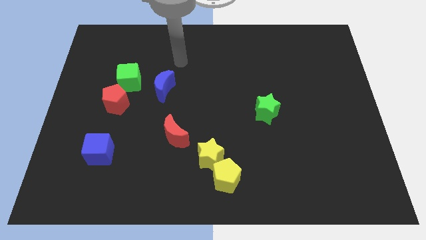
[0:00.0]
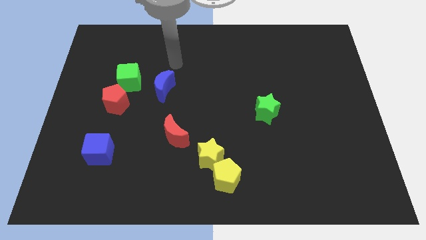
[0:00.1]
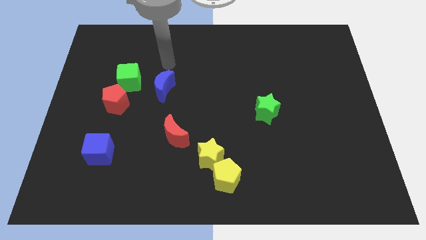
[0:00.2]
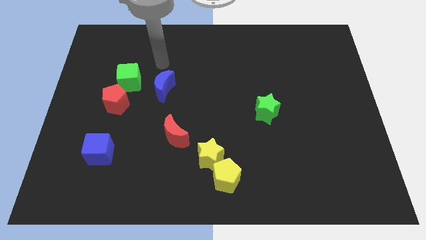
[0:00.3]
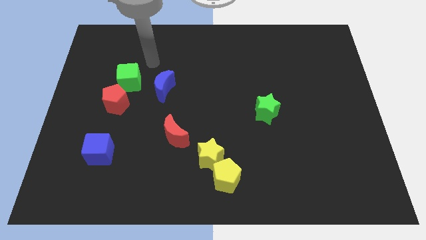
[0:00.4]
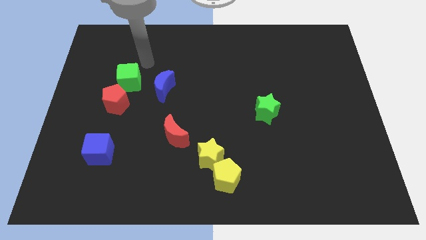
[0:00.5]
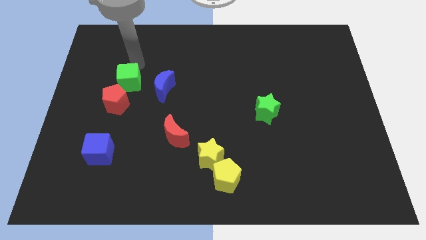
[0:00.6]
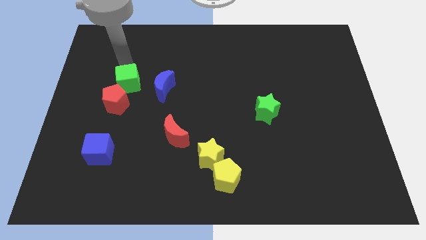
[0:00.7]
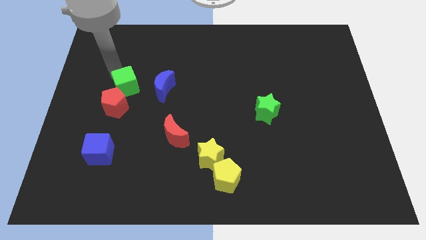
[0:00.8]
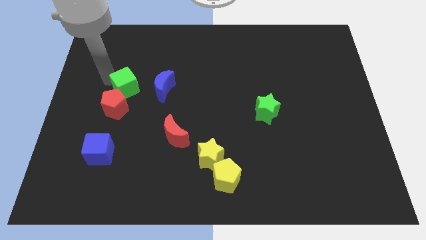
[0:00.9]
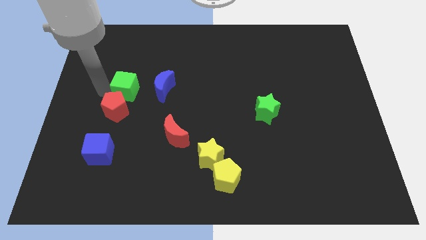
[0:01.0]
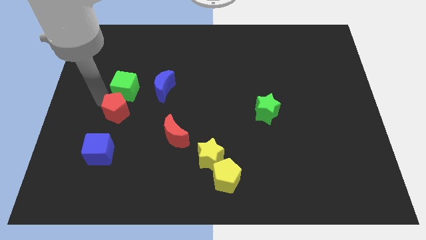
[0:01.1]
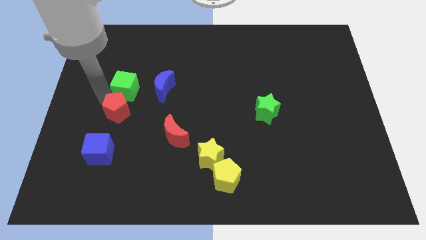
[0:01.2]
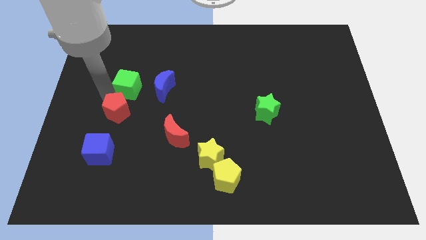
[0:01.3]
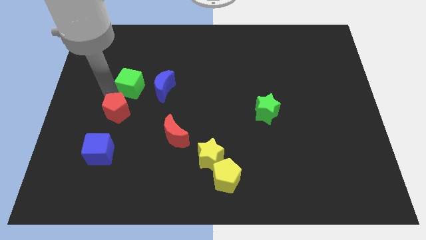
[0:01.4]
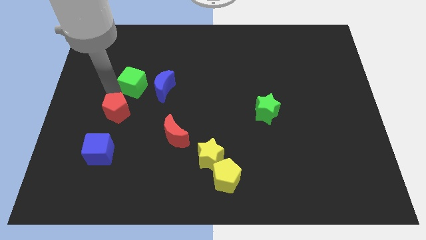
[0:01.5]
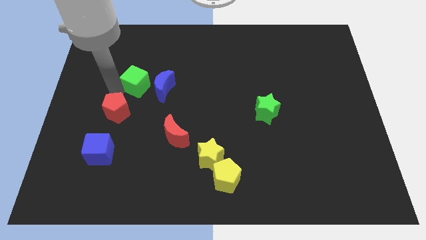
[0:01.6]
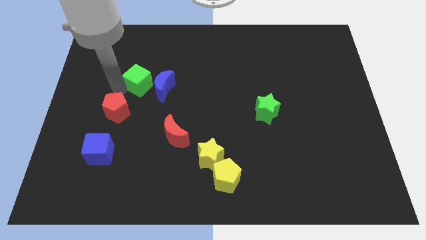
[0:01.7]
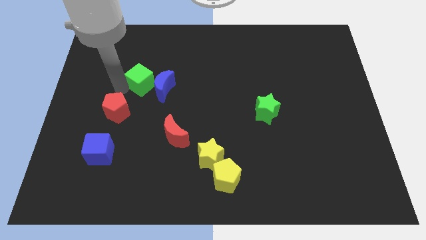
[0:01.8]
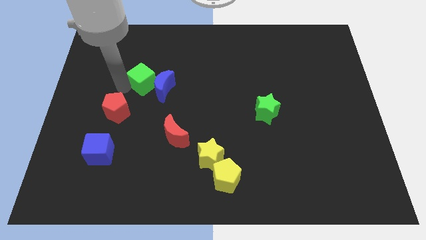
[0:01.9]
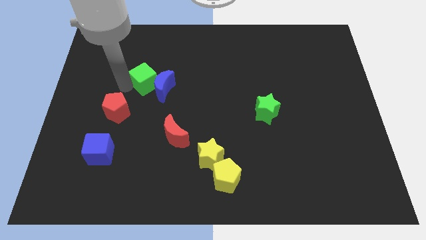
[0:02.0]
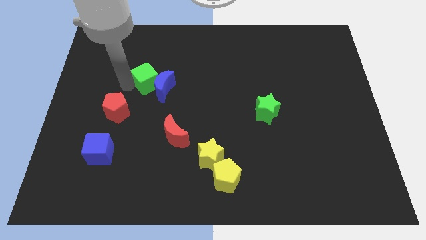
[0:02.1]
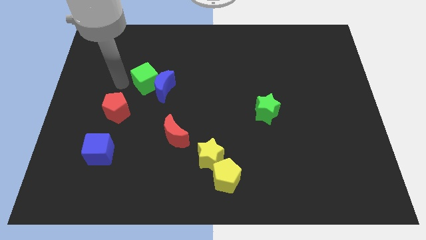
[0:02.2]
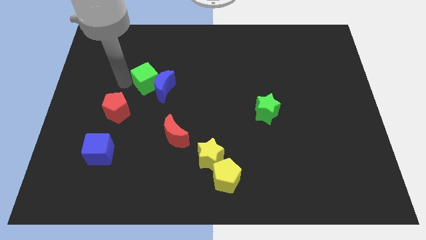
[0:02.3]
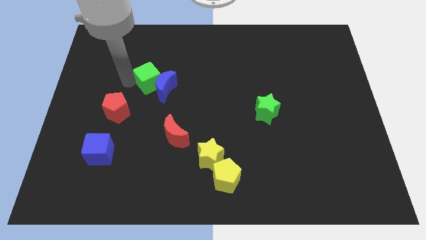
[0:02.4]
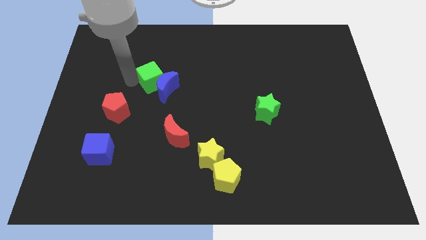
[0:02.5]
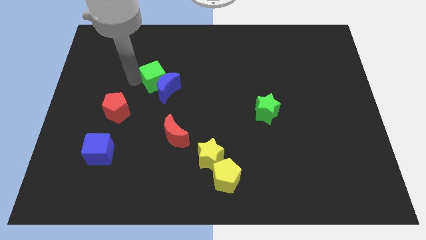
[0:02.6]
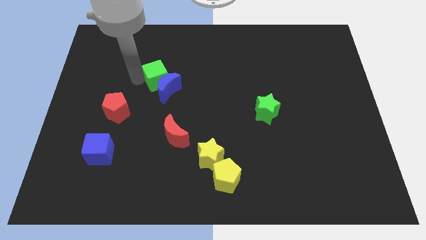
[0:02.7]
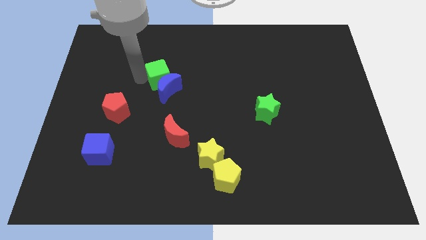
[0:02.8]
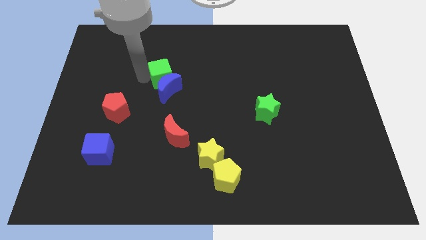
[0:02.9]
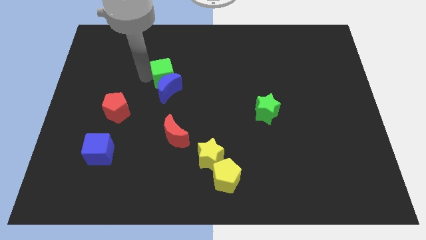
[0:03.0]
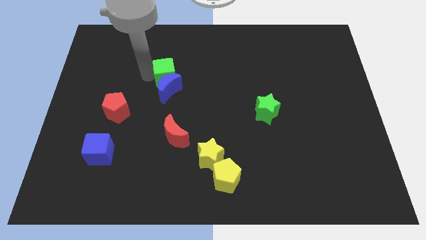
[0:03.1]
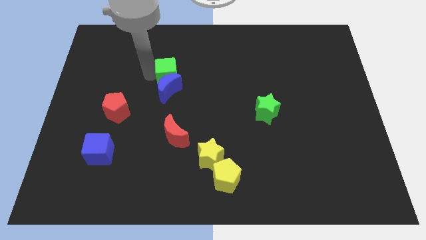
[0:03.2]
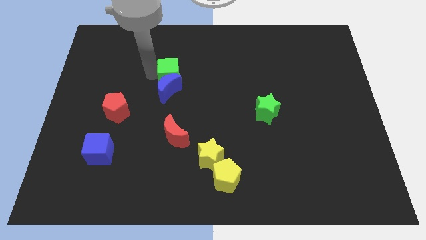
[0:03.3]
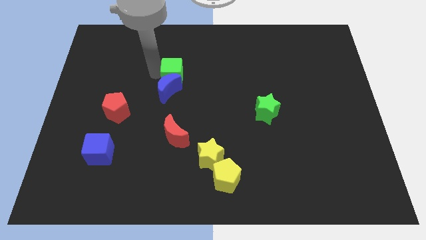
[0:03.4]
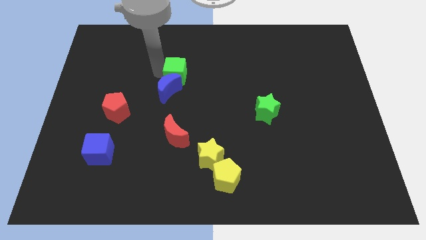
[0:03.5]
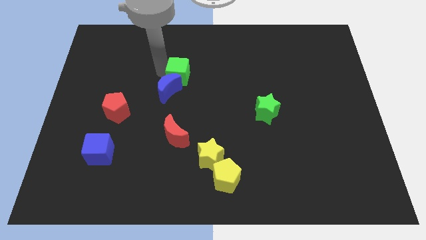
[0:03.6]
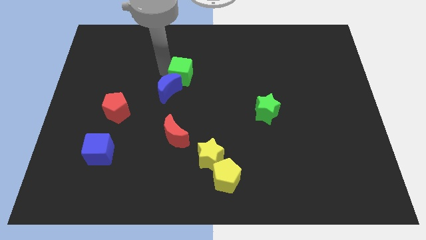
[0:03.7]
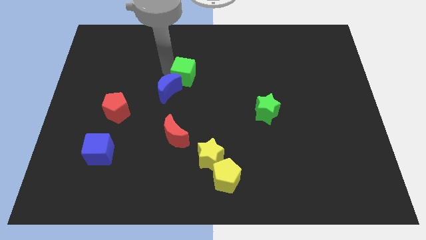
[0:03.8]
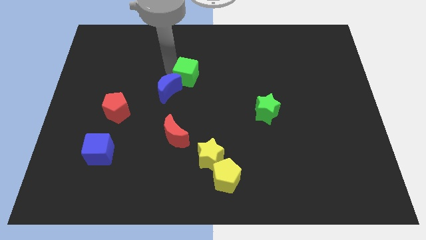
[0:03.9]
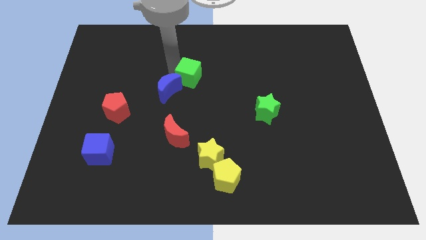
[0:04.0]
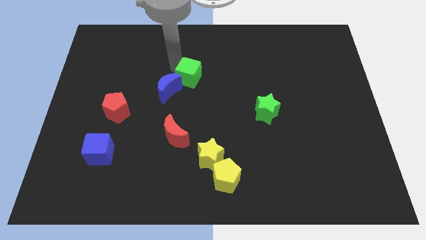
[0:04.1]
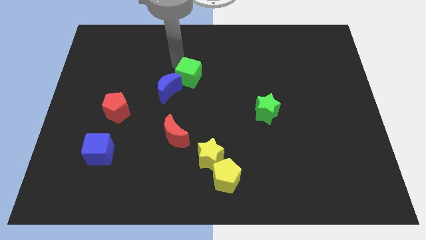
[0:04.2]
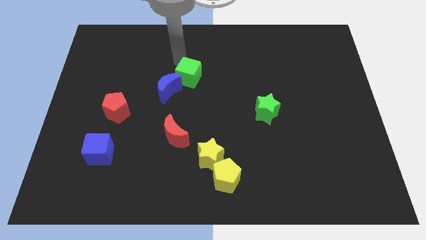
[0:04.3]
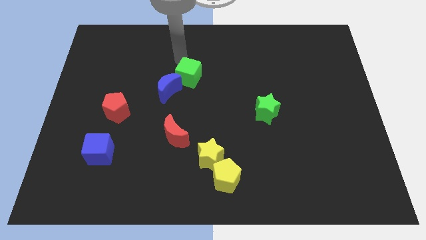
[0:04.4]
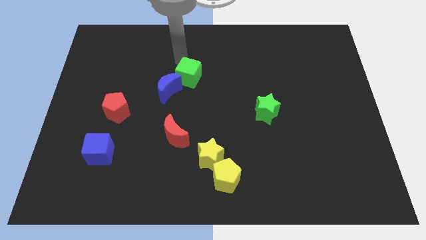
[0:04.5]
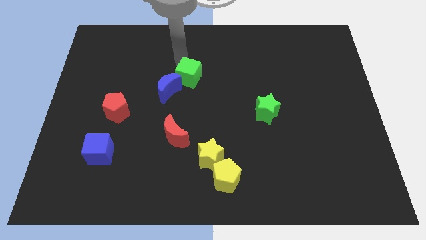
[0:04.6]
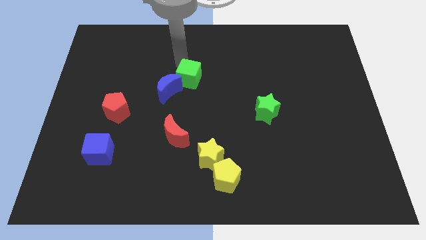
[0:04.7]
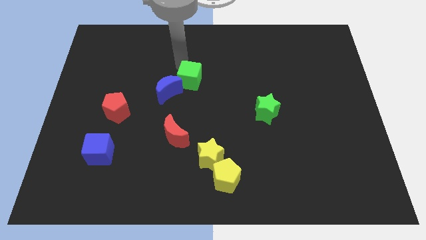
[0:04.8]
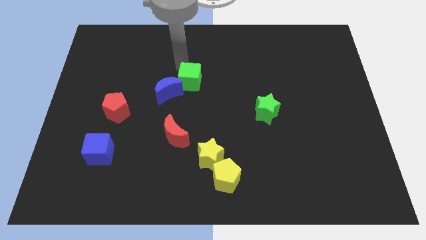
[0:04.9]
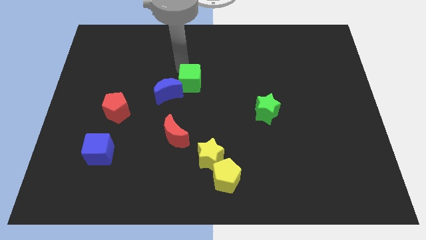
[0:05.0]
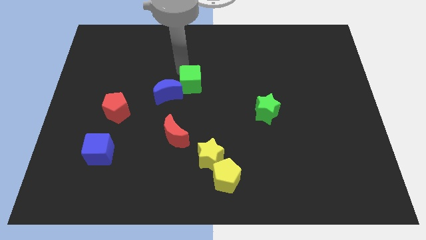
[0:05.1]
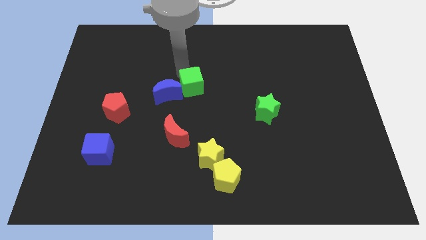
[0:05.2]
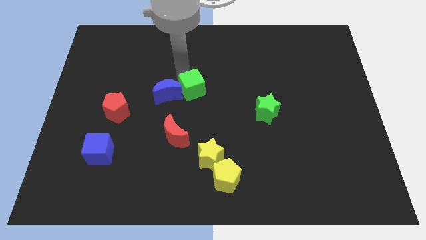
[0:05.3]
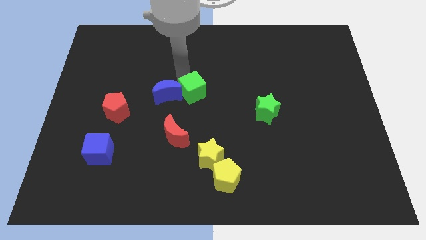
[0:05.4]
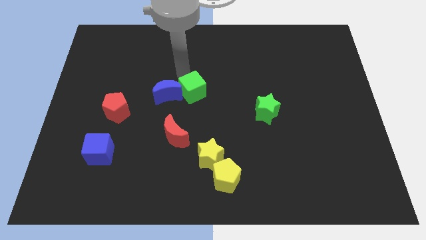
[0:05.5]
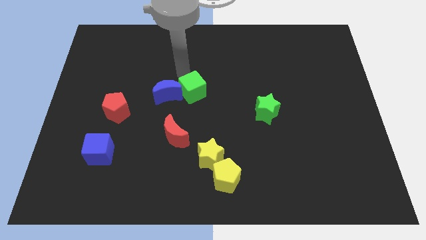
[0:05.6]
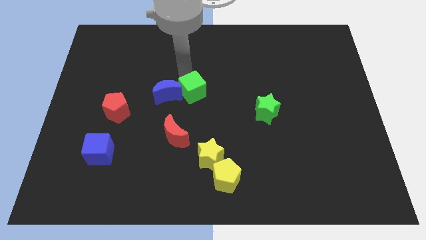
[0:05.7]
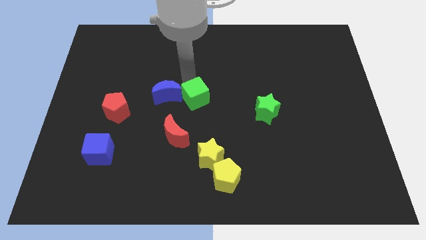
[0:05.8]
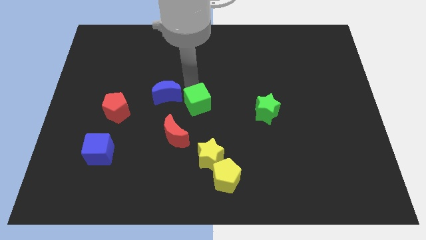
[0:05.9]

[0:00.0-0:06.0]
move the green cube to the top of the yellow star

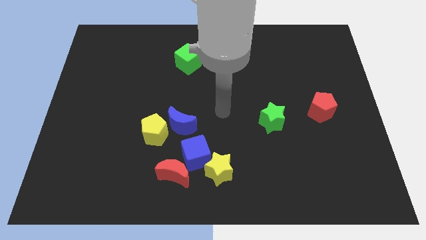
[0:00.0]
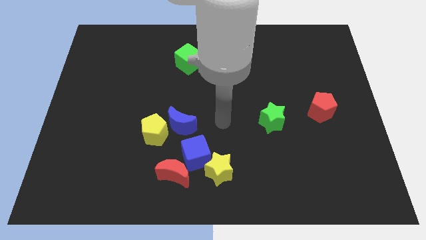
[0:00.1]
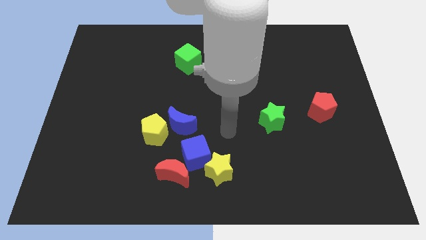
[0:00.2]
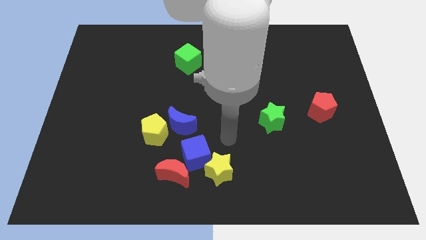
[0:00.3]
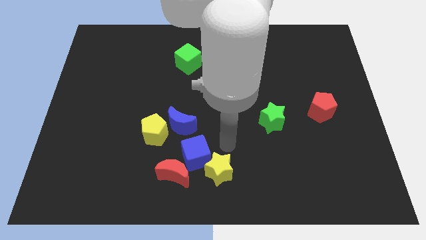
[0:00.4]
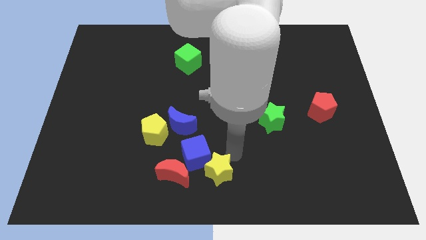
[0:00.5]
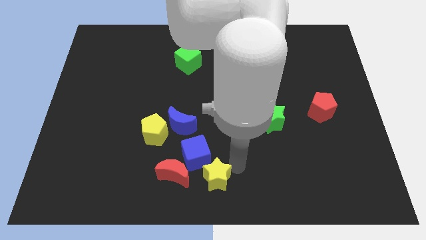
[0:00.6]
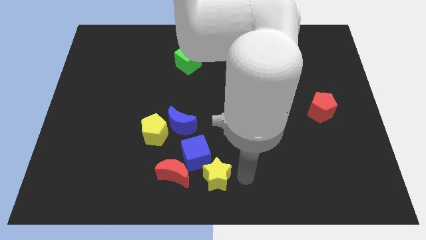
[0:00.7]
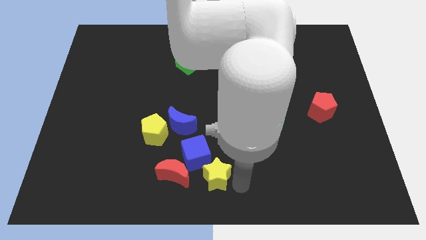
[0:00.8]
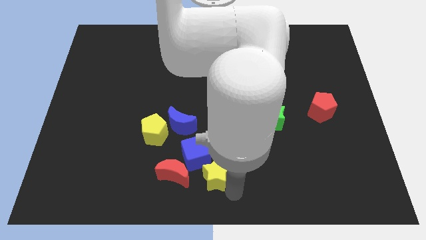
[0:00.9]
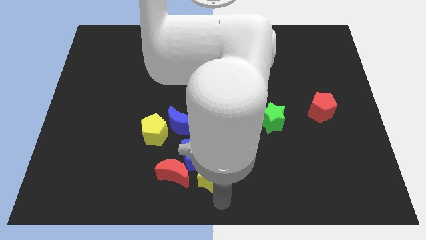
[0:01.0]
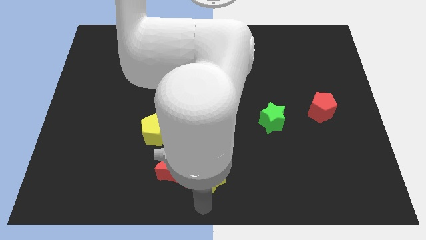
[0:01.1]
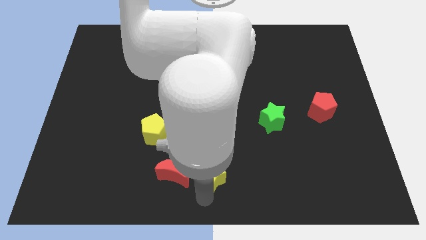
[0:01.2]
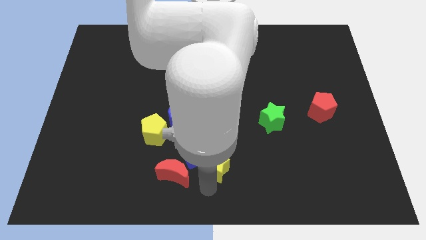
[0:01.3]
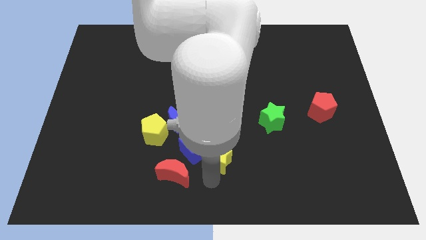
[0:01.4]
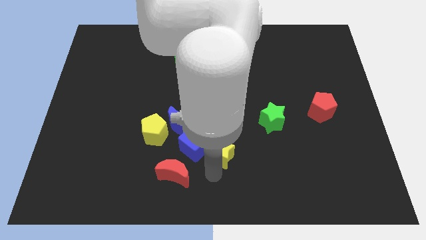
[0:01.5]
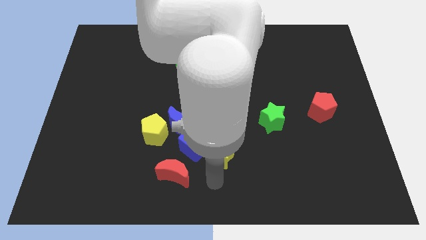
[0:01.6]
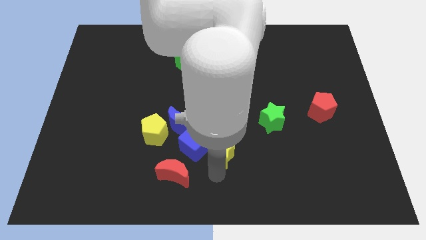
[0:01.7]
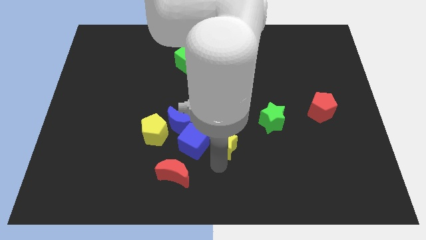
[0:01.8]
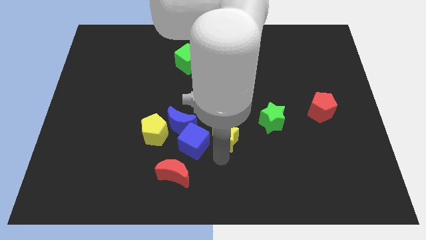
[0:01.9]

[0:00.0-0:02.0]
move the yellow star to the left of the green star
